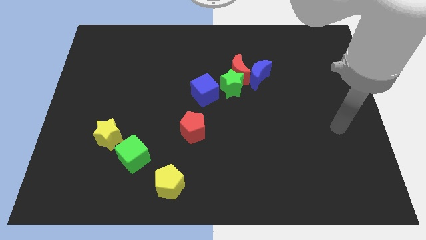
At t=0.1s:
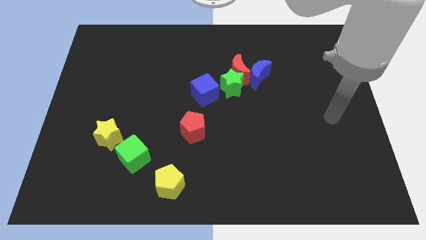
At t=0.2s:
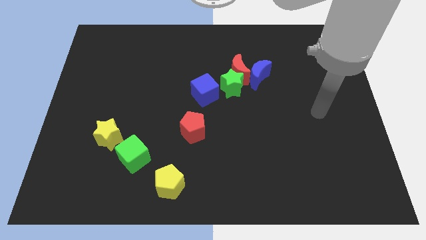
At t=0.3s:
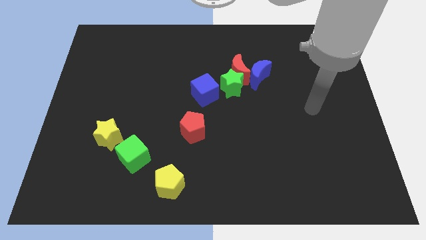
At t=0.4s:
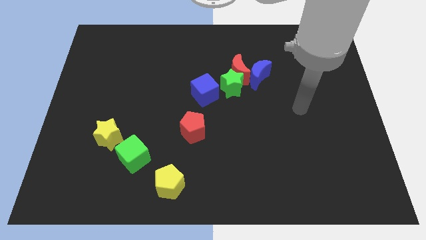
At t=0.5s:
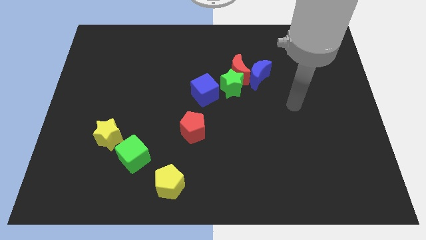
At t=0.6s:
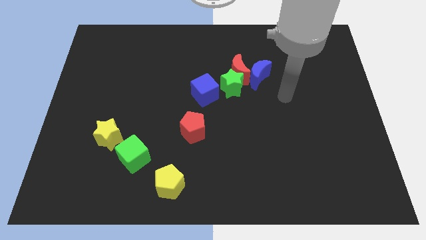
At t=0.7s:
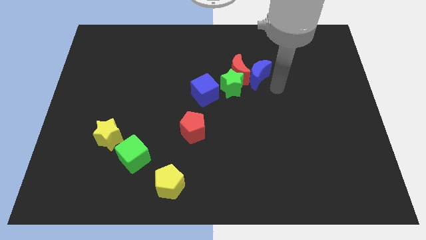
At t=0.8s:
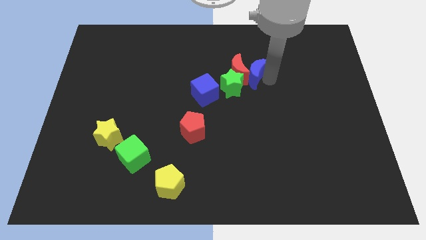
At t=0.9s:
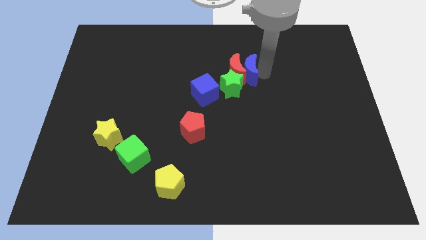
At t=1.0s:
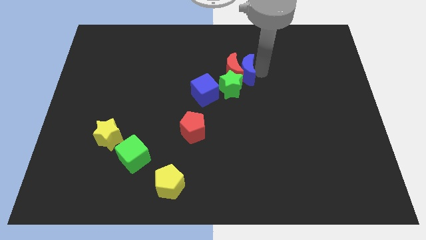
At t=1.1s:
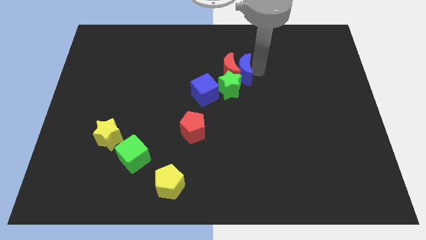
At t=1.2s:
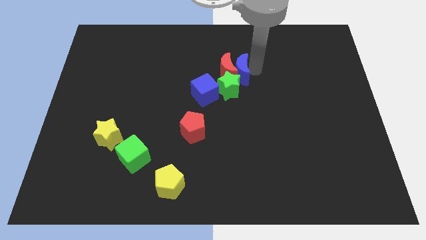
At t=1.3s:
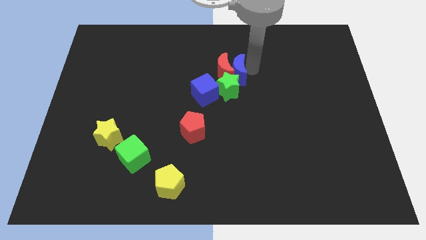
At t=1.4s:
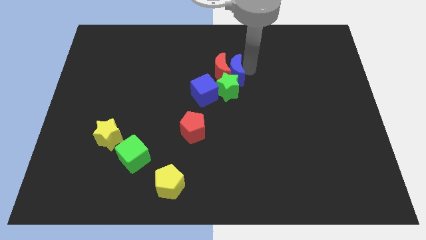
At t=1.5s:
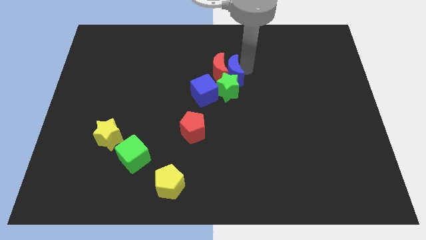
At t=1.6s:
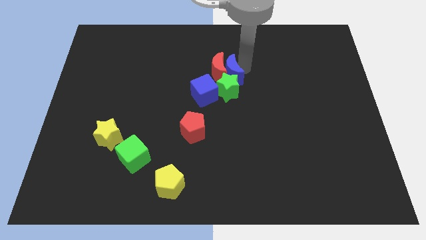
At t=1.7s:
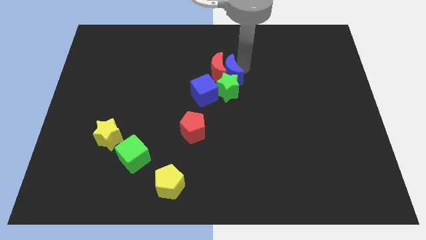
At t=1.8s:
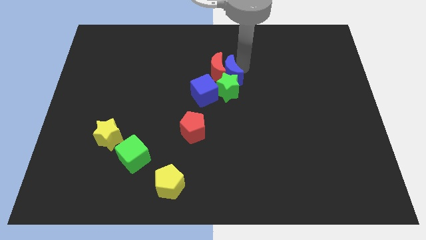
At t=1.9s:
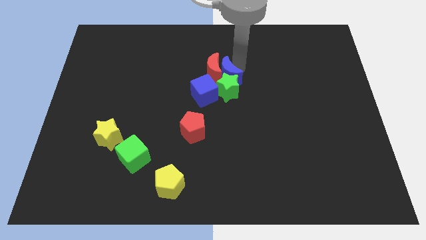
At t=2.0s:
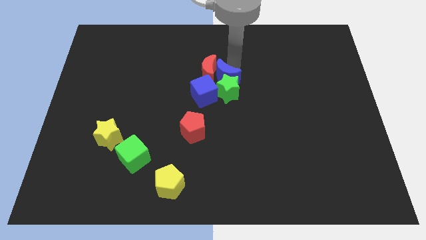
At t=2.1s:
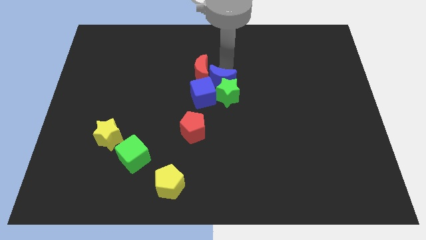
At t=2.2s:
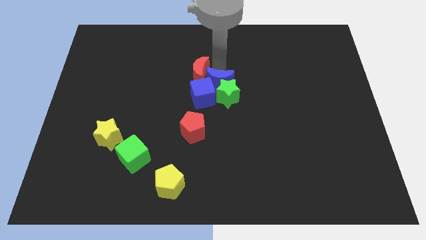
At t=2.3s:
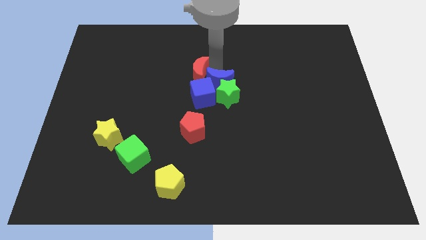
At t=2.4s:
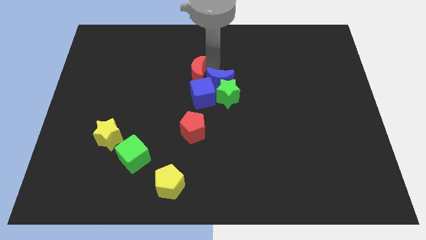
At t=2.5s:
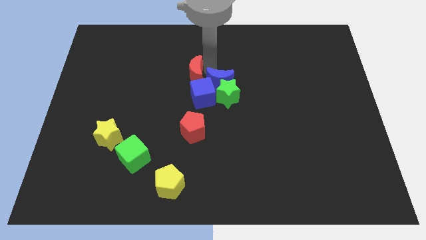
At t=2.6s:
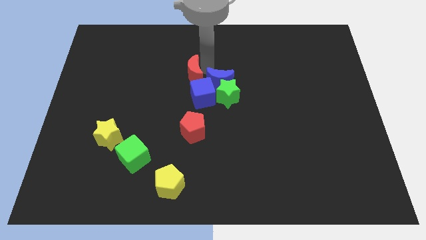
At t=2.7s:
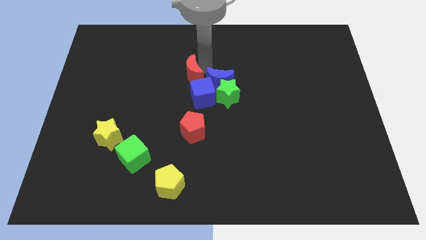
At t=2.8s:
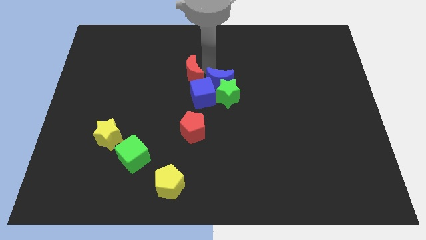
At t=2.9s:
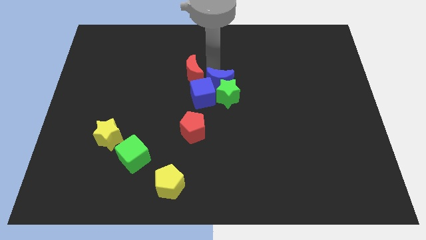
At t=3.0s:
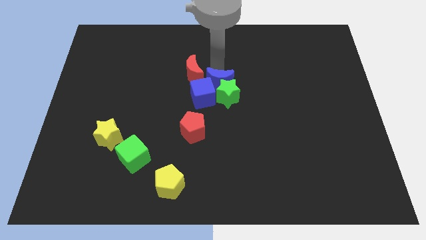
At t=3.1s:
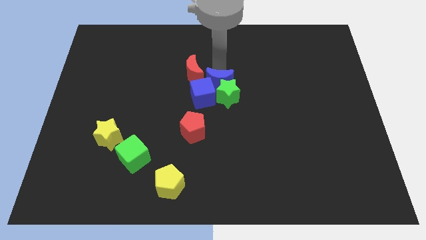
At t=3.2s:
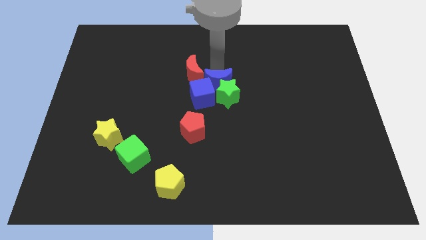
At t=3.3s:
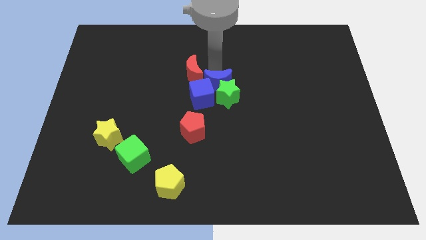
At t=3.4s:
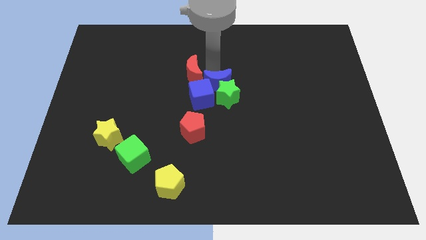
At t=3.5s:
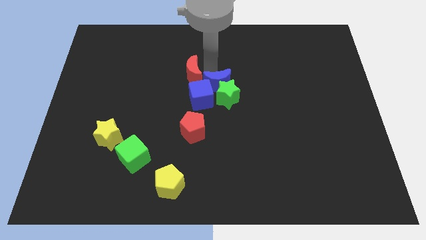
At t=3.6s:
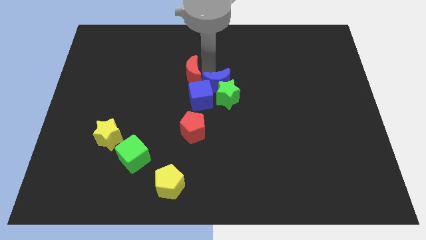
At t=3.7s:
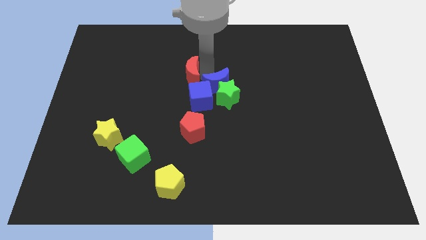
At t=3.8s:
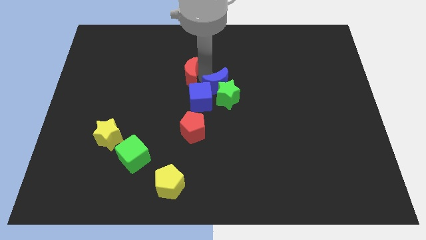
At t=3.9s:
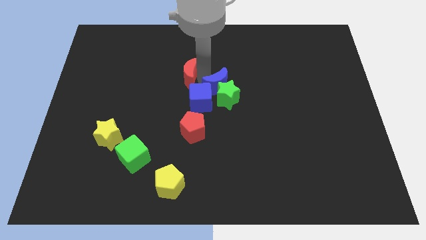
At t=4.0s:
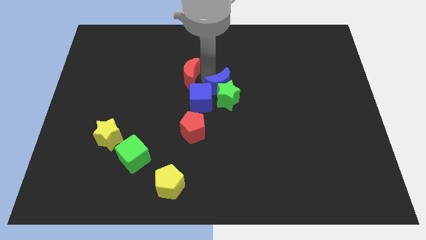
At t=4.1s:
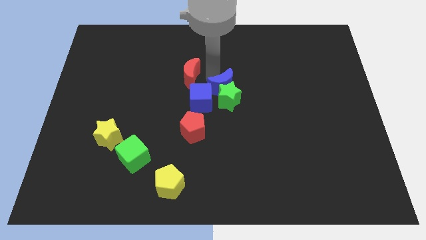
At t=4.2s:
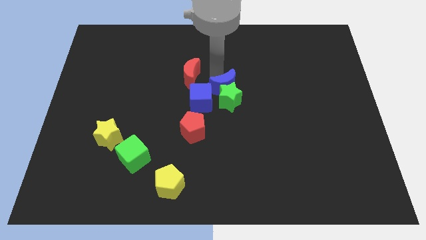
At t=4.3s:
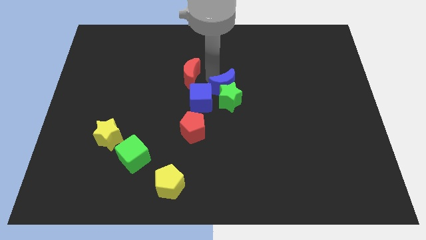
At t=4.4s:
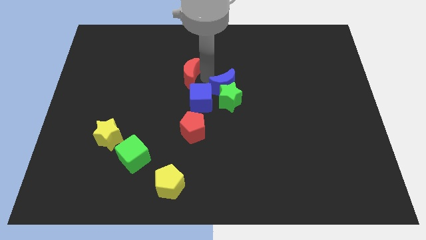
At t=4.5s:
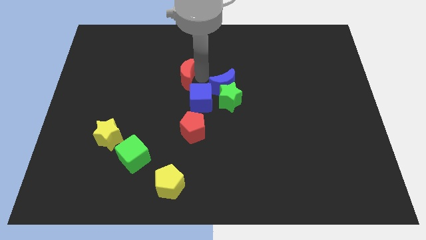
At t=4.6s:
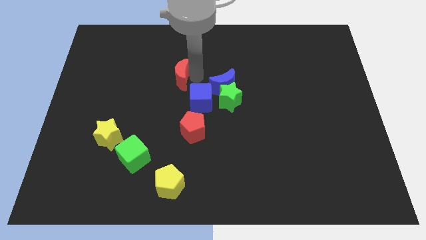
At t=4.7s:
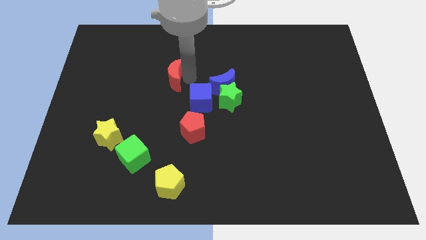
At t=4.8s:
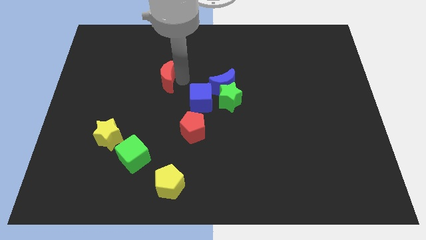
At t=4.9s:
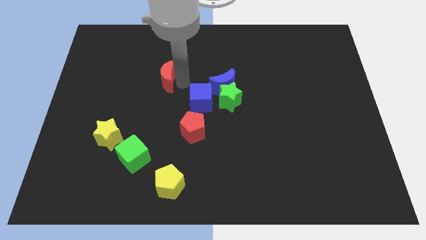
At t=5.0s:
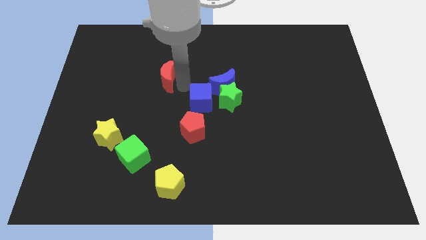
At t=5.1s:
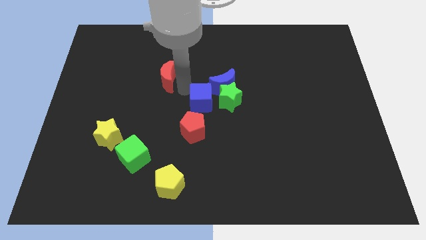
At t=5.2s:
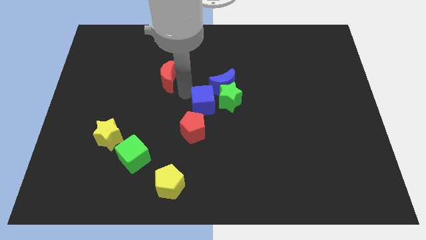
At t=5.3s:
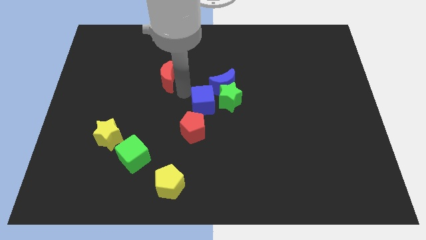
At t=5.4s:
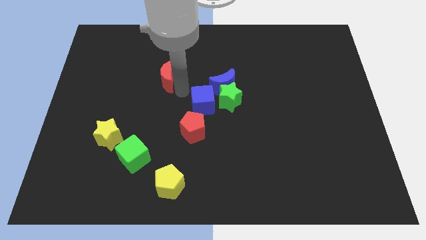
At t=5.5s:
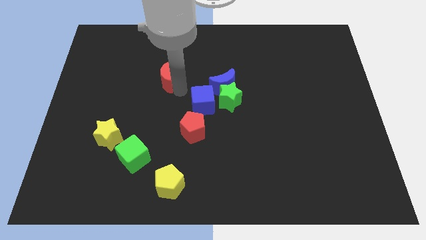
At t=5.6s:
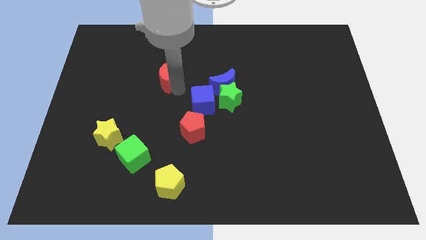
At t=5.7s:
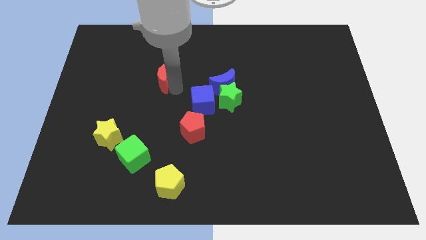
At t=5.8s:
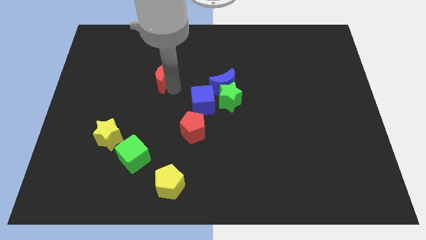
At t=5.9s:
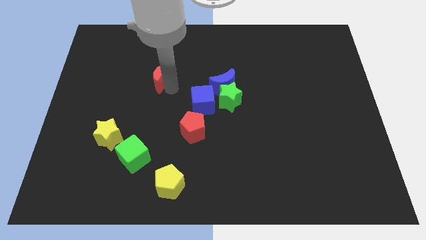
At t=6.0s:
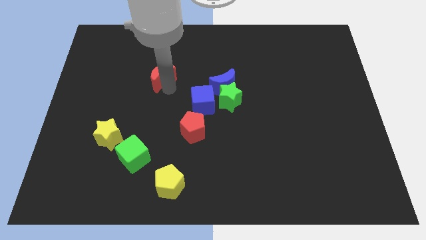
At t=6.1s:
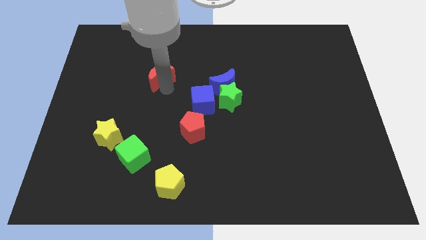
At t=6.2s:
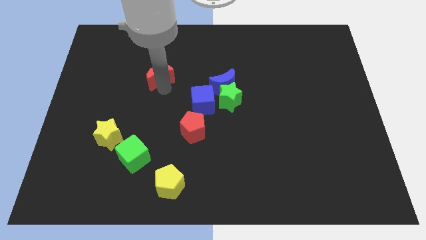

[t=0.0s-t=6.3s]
push the red moon to the left

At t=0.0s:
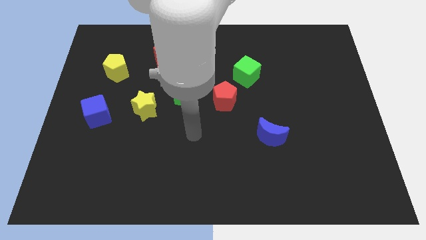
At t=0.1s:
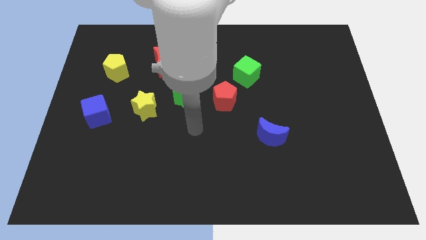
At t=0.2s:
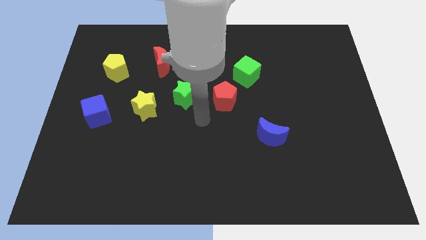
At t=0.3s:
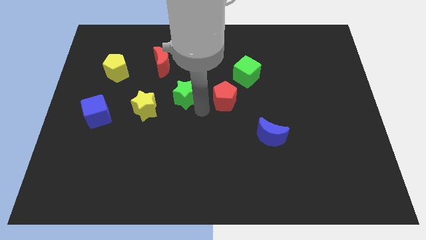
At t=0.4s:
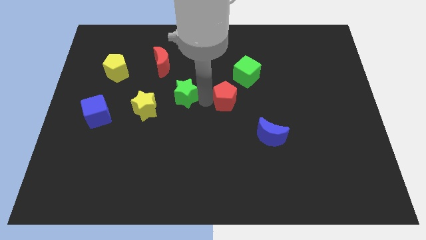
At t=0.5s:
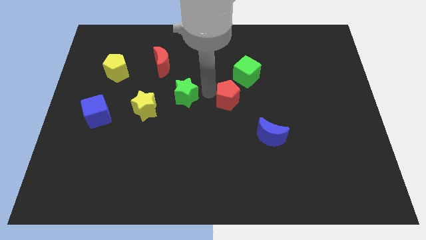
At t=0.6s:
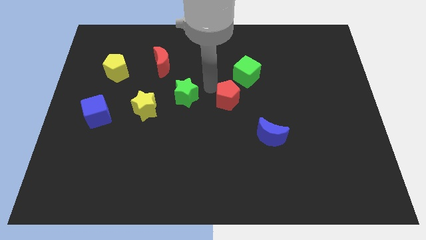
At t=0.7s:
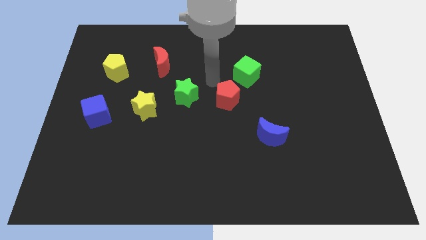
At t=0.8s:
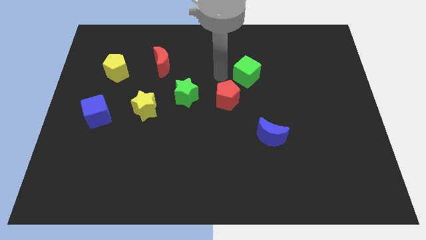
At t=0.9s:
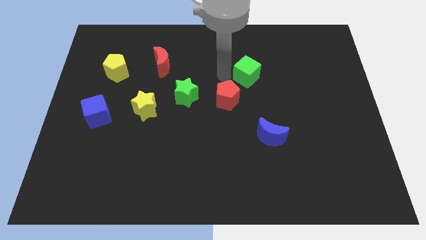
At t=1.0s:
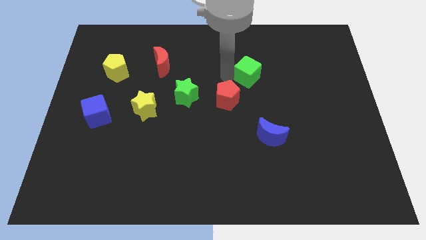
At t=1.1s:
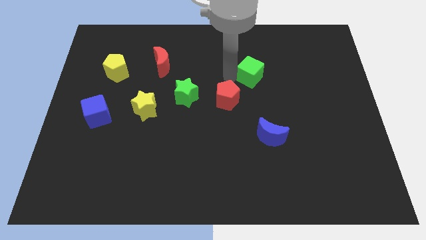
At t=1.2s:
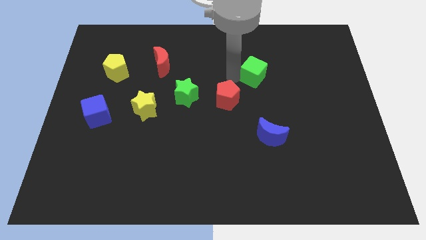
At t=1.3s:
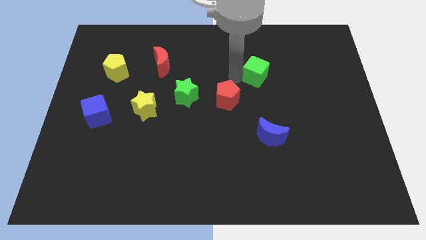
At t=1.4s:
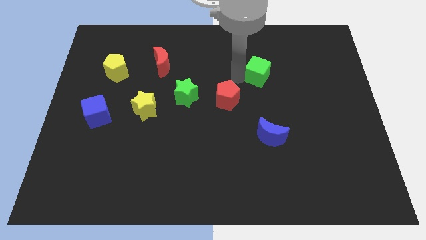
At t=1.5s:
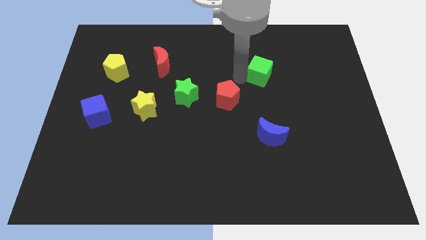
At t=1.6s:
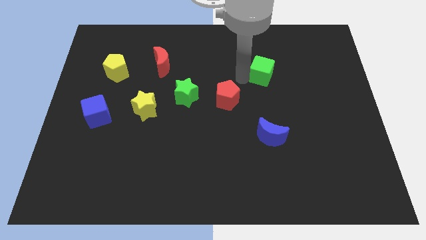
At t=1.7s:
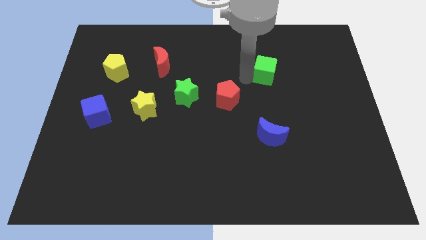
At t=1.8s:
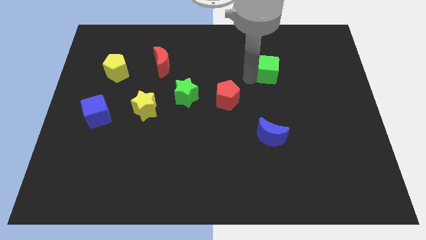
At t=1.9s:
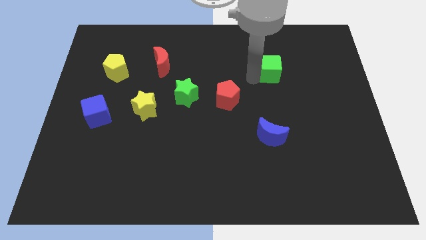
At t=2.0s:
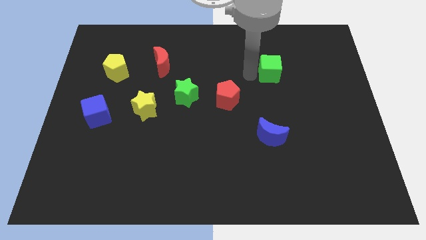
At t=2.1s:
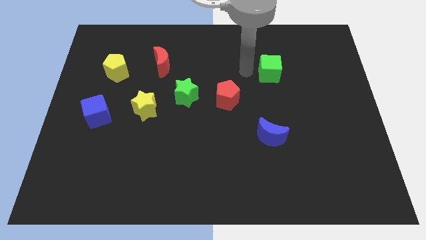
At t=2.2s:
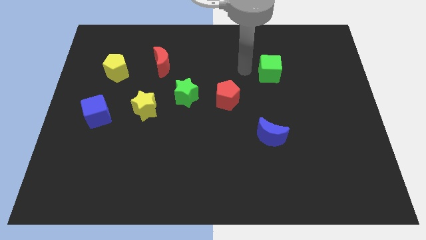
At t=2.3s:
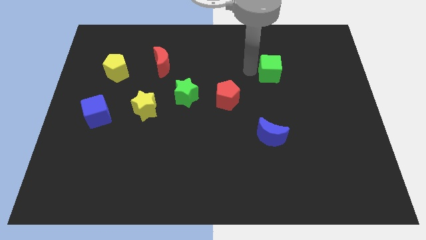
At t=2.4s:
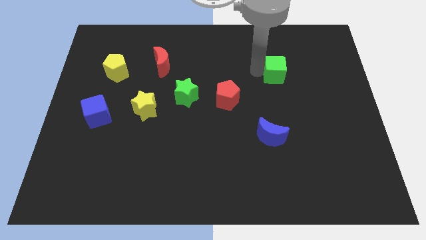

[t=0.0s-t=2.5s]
push the green cube right a bit
